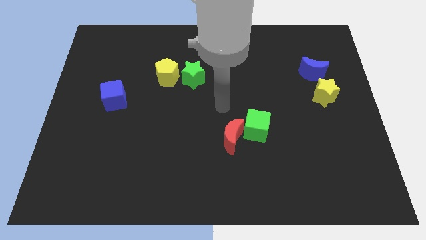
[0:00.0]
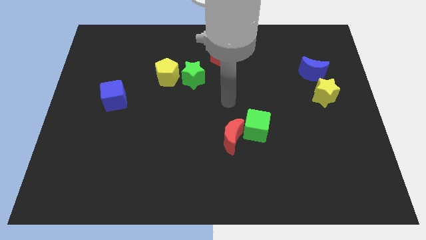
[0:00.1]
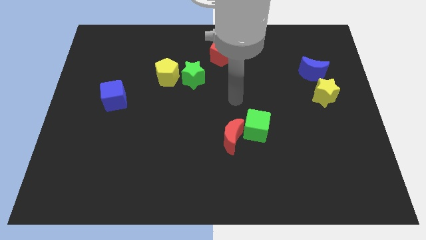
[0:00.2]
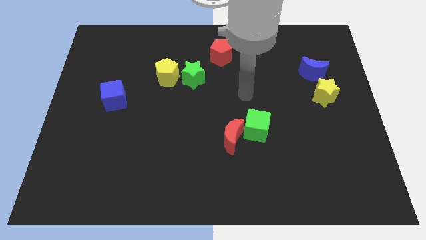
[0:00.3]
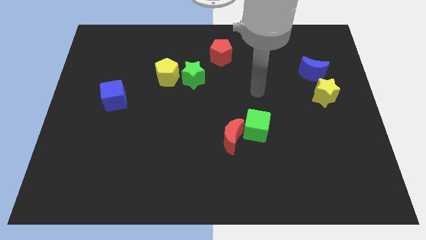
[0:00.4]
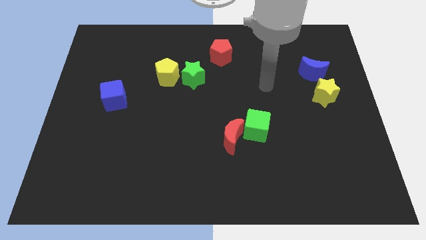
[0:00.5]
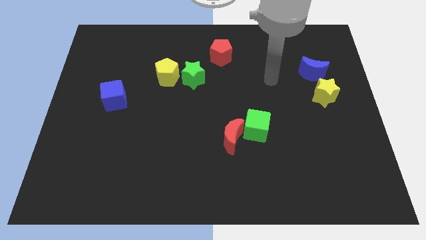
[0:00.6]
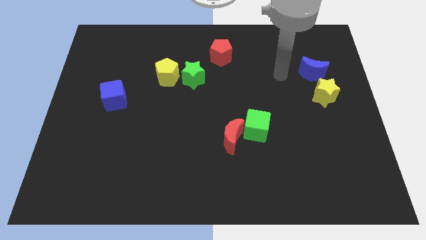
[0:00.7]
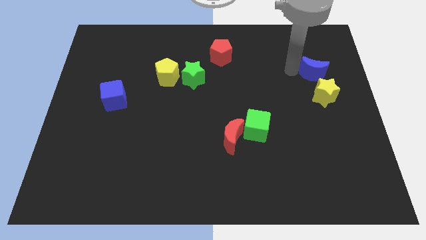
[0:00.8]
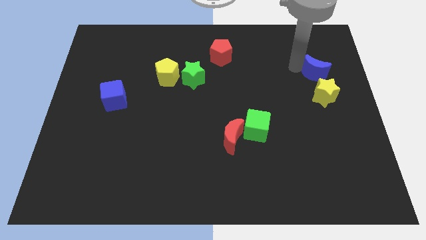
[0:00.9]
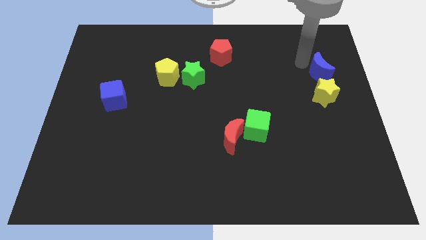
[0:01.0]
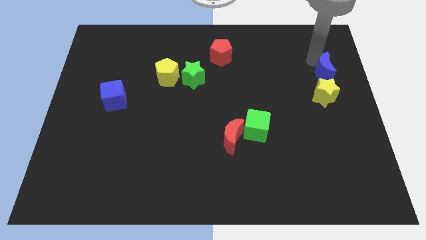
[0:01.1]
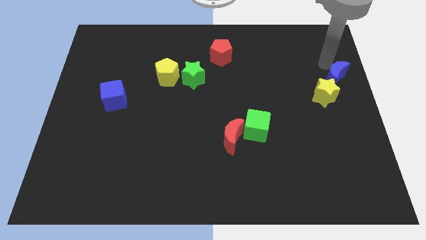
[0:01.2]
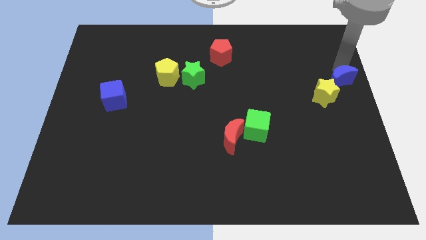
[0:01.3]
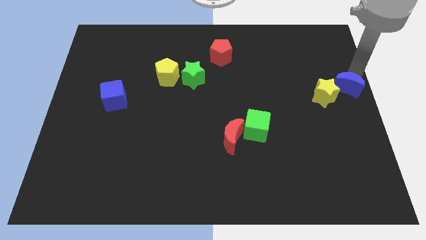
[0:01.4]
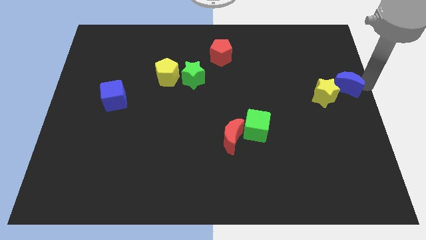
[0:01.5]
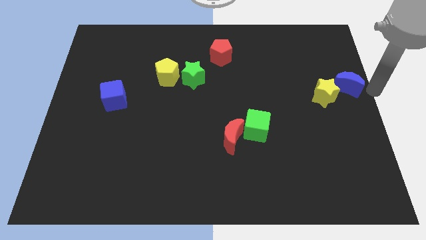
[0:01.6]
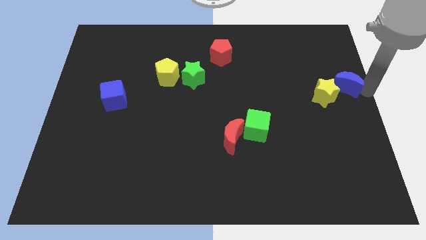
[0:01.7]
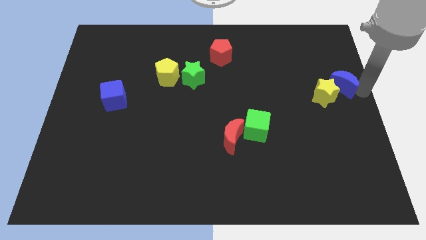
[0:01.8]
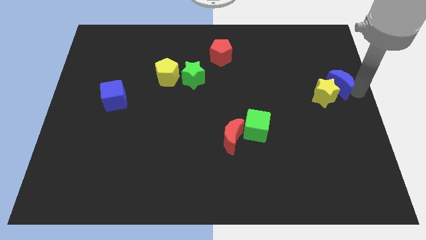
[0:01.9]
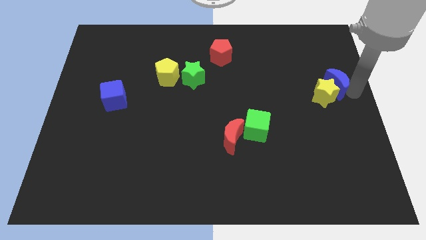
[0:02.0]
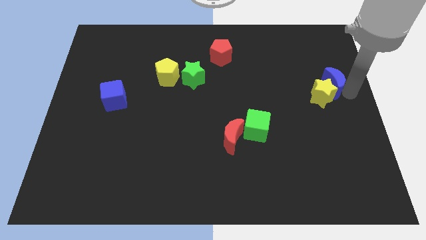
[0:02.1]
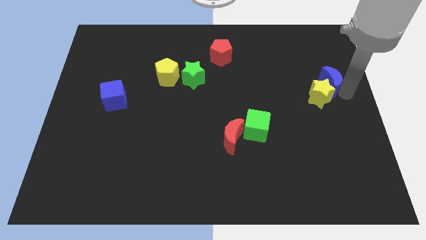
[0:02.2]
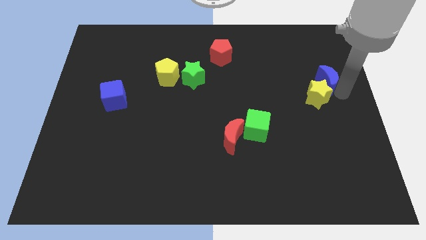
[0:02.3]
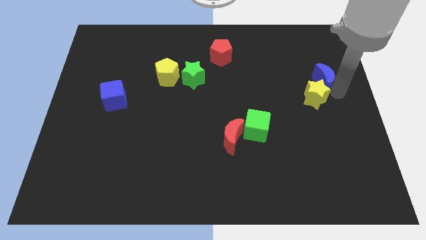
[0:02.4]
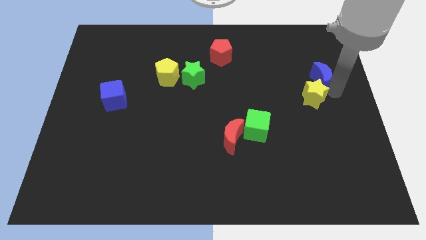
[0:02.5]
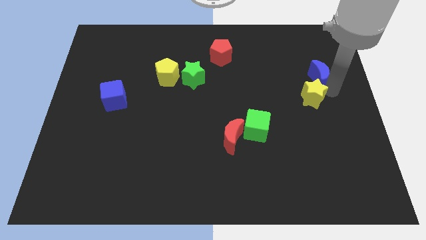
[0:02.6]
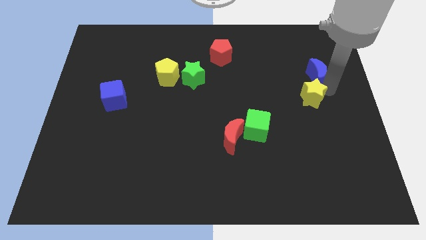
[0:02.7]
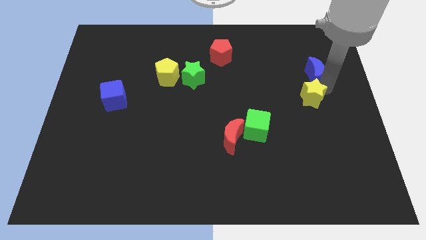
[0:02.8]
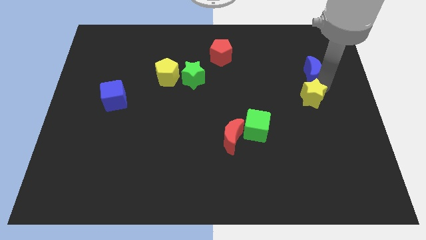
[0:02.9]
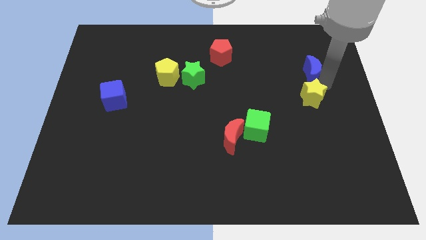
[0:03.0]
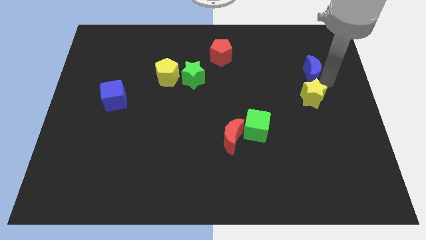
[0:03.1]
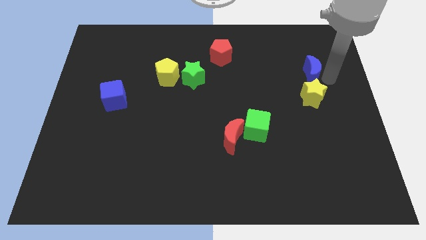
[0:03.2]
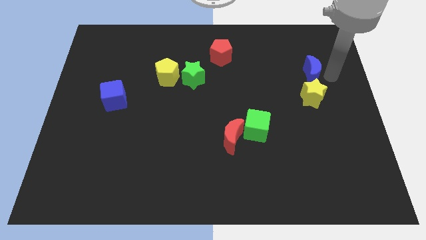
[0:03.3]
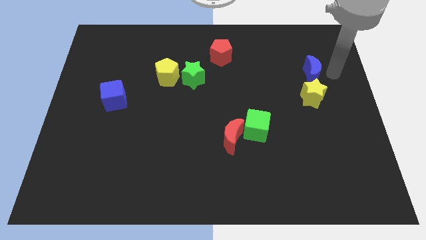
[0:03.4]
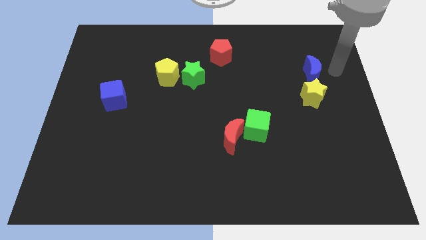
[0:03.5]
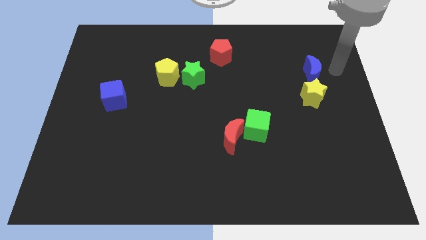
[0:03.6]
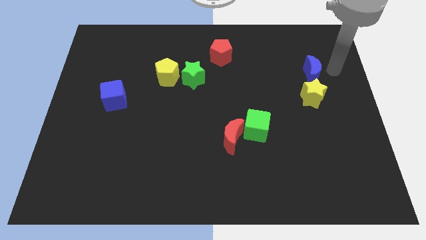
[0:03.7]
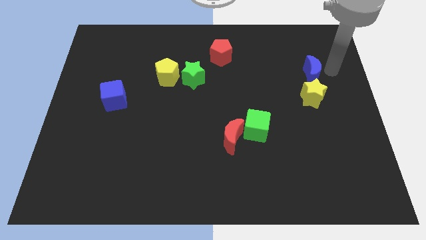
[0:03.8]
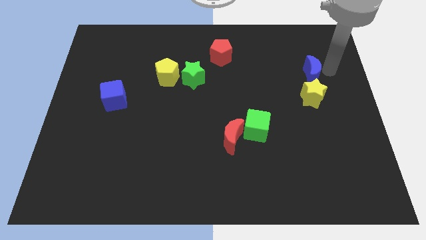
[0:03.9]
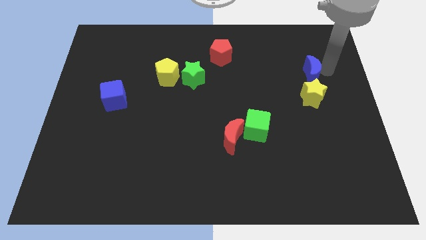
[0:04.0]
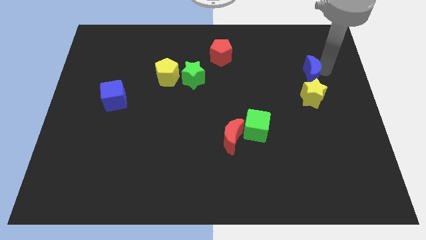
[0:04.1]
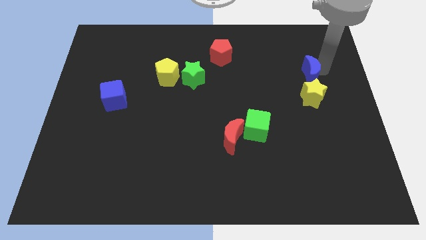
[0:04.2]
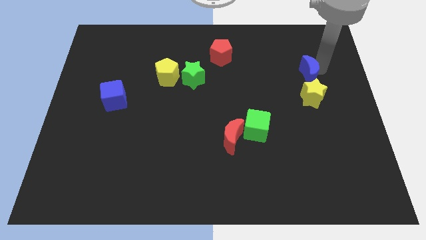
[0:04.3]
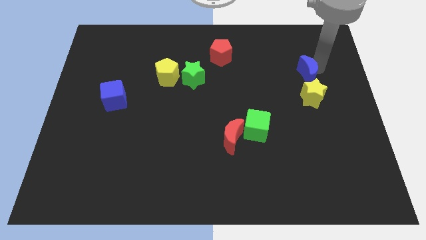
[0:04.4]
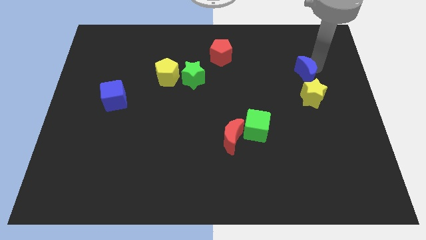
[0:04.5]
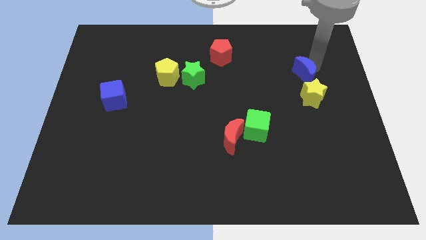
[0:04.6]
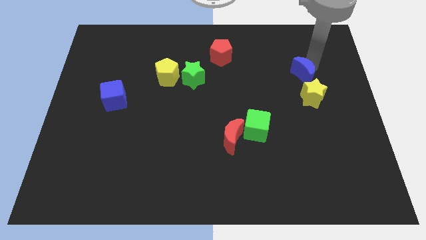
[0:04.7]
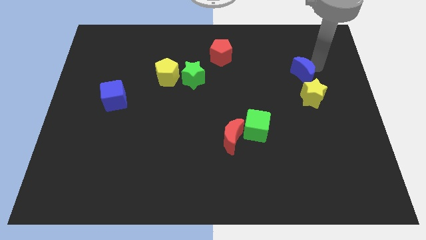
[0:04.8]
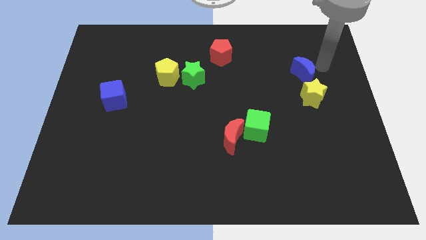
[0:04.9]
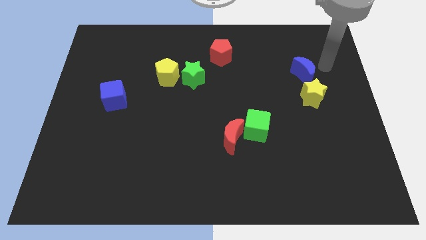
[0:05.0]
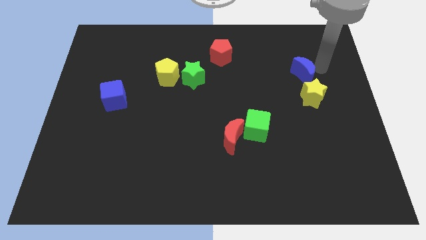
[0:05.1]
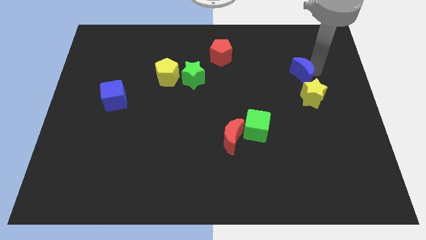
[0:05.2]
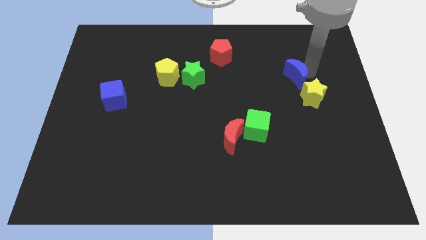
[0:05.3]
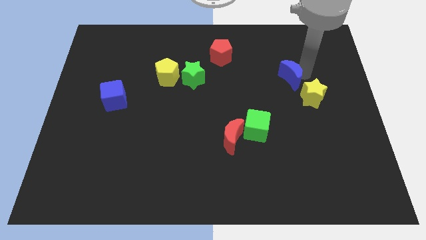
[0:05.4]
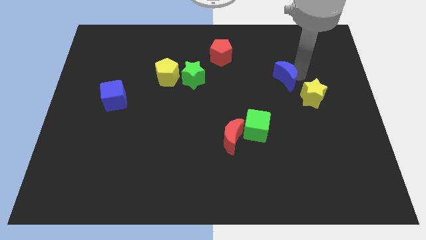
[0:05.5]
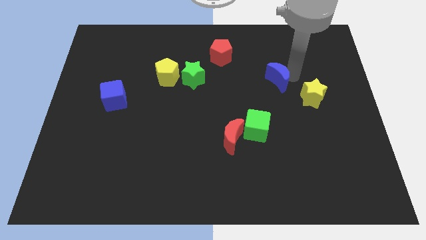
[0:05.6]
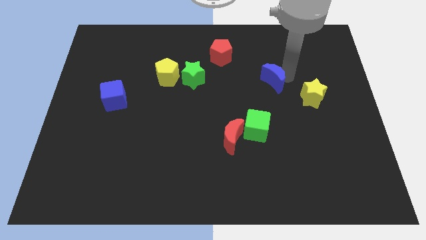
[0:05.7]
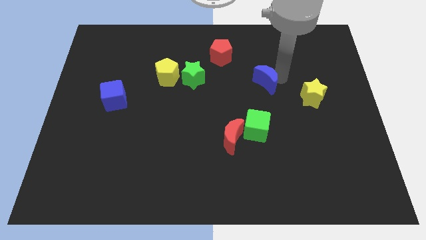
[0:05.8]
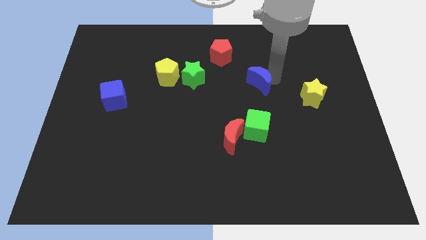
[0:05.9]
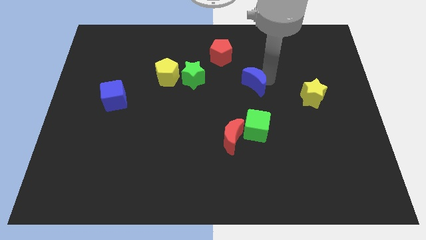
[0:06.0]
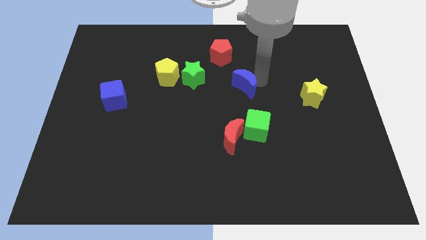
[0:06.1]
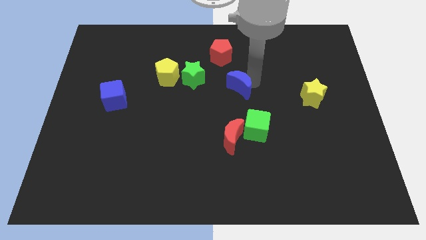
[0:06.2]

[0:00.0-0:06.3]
put the blue moon to the top side of the red moon

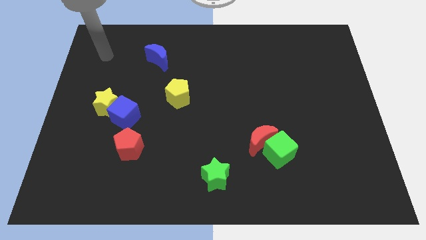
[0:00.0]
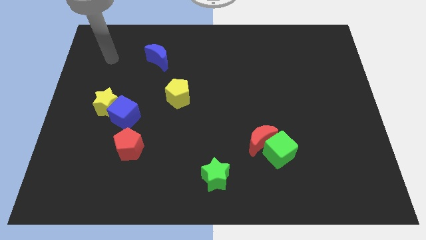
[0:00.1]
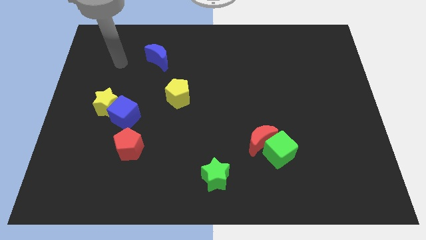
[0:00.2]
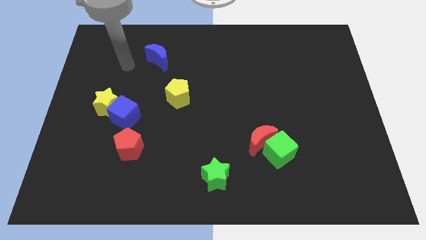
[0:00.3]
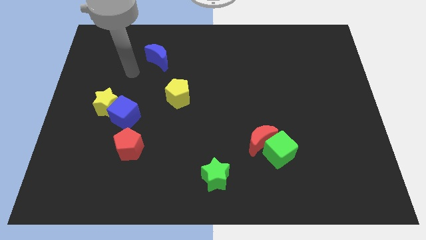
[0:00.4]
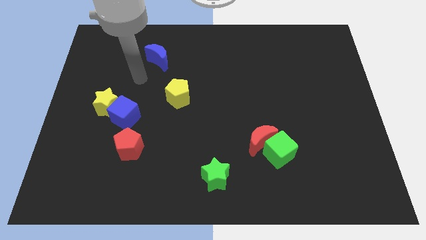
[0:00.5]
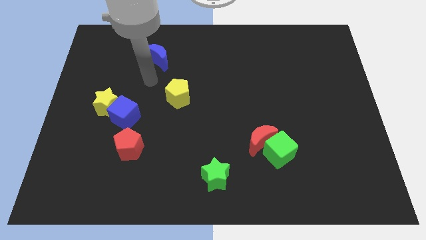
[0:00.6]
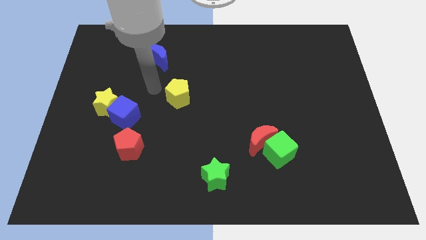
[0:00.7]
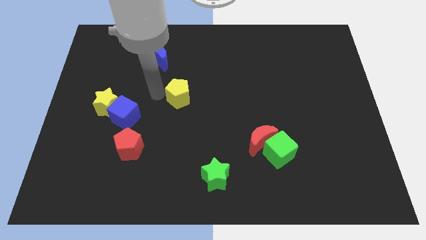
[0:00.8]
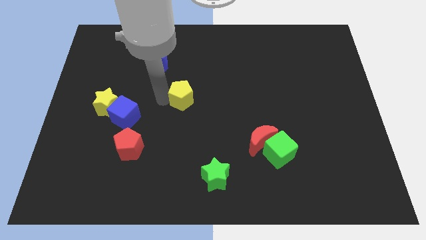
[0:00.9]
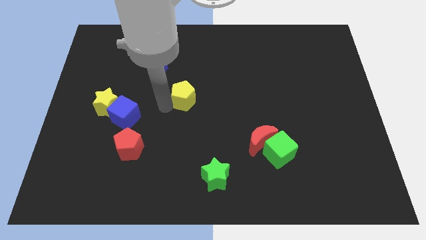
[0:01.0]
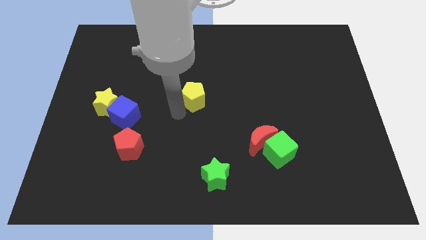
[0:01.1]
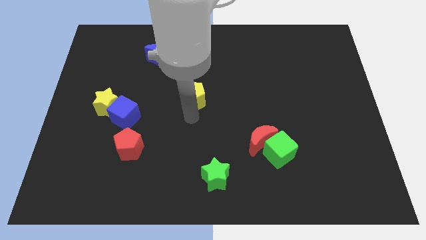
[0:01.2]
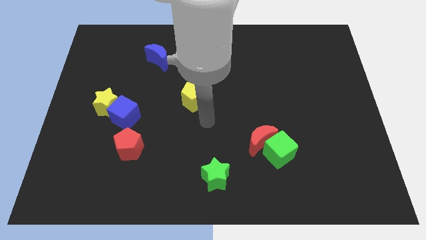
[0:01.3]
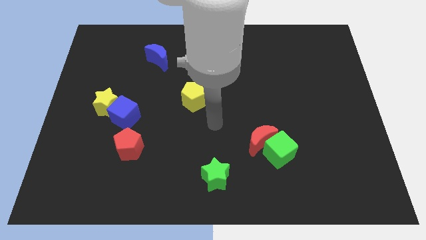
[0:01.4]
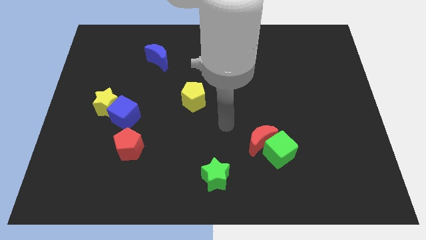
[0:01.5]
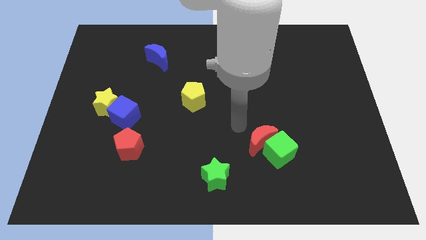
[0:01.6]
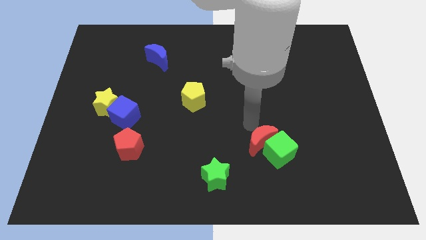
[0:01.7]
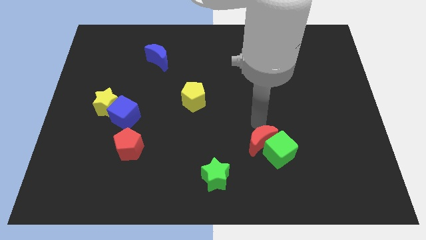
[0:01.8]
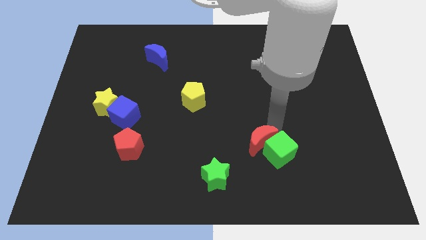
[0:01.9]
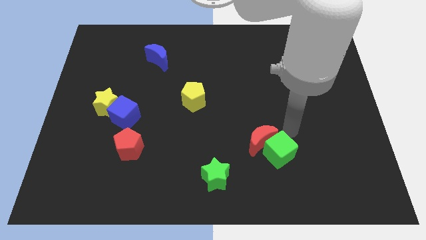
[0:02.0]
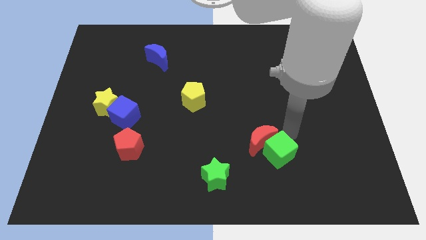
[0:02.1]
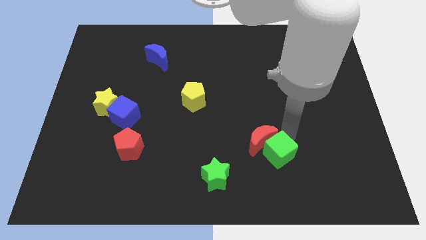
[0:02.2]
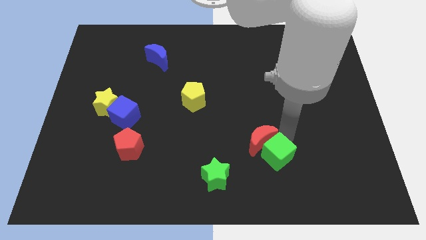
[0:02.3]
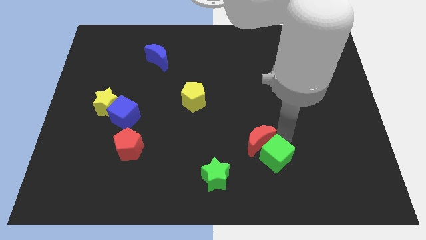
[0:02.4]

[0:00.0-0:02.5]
slide the green cube to the right side of the green star
